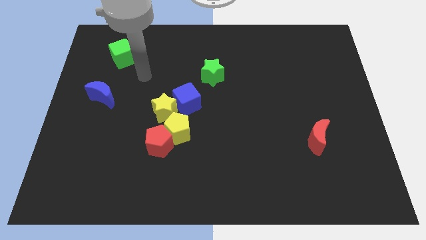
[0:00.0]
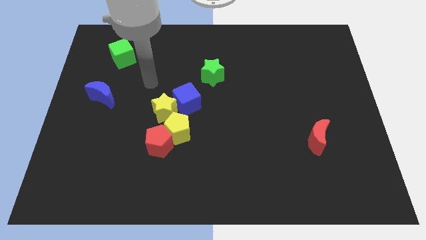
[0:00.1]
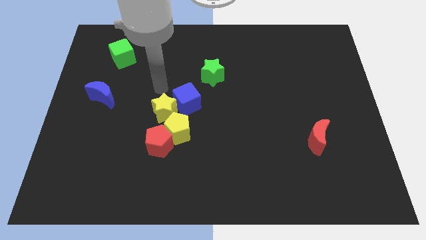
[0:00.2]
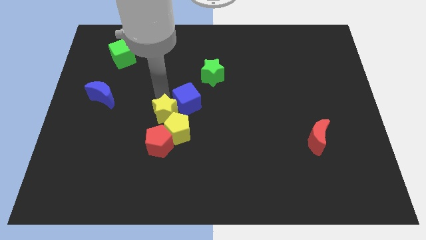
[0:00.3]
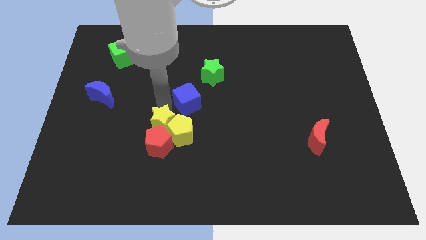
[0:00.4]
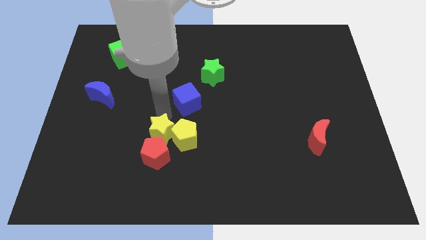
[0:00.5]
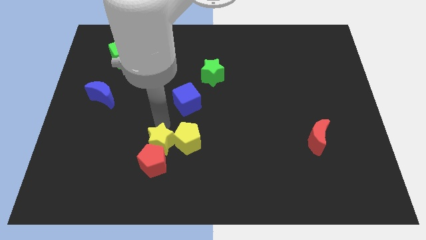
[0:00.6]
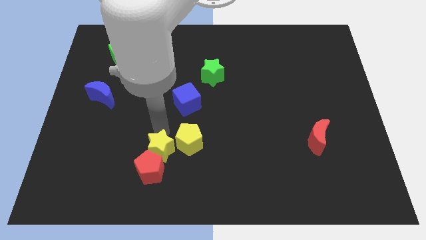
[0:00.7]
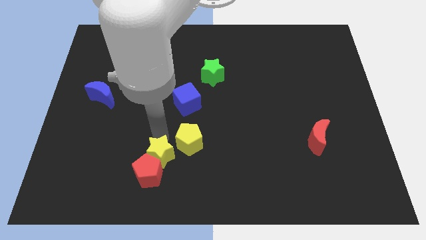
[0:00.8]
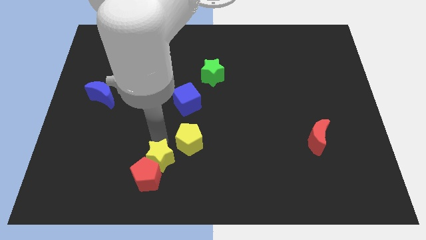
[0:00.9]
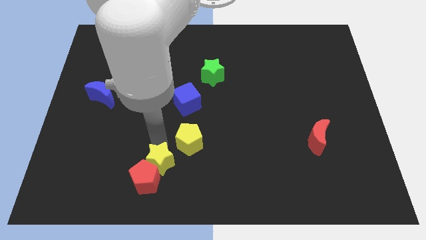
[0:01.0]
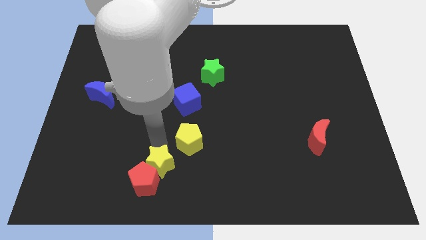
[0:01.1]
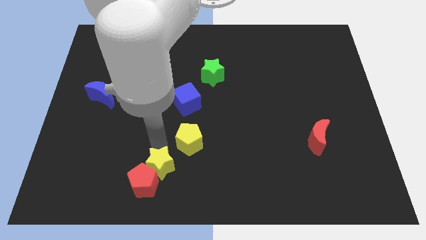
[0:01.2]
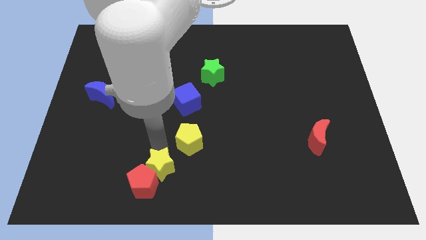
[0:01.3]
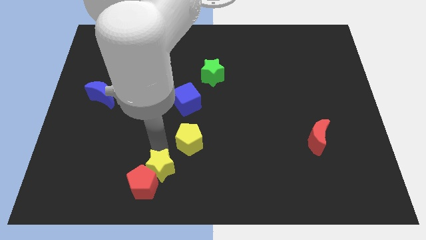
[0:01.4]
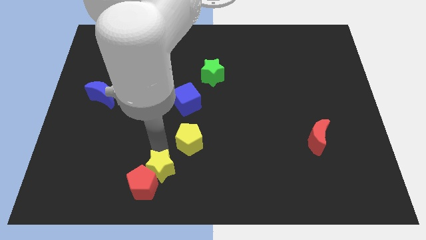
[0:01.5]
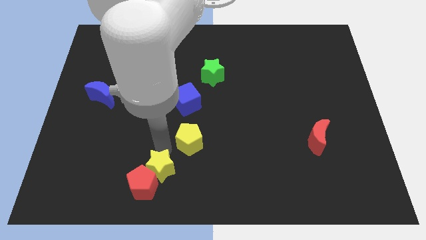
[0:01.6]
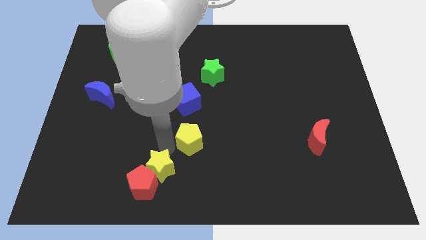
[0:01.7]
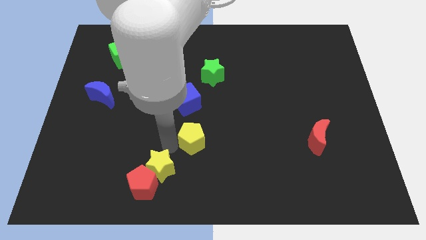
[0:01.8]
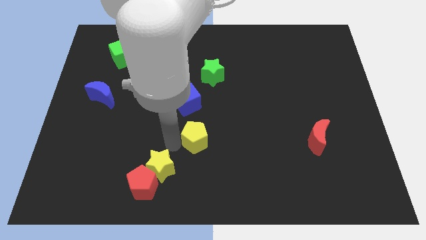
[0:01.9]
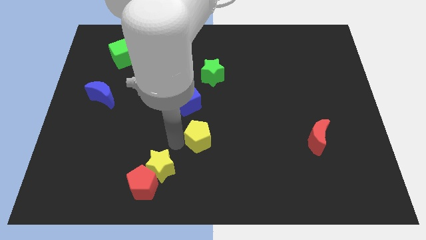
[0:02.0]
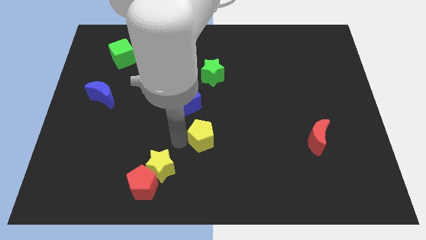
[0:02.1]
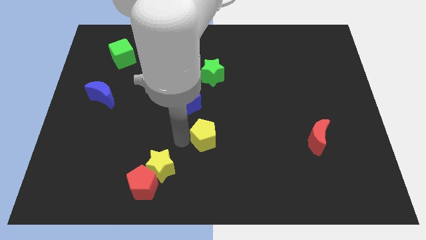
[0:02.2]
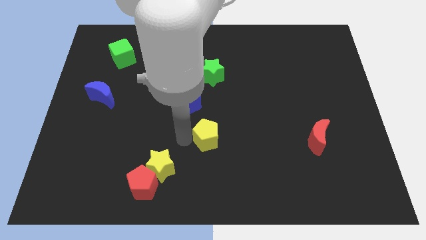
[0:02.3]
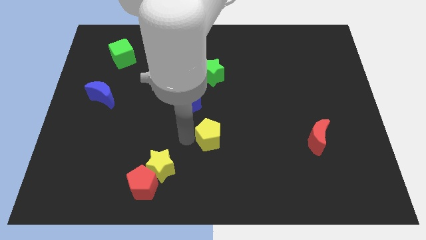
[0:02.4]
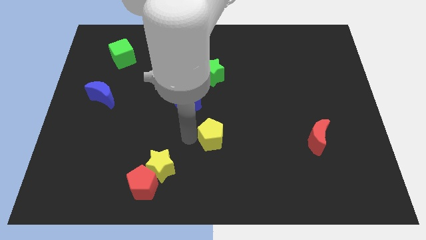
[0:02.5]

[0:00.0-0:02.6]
move the yellow pentagon away from the group

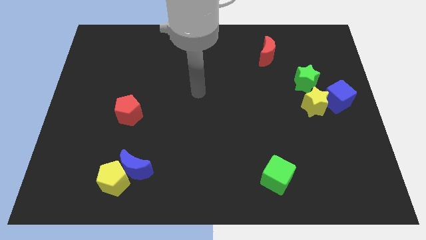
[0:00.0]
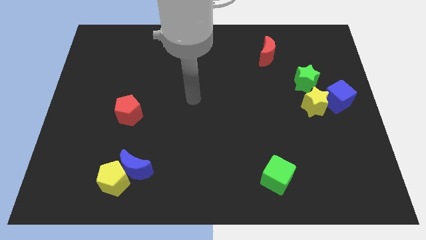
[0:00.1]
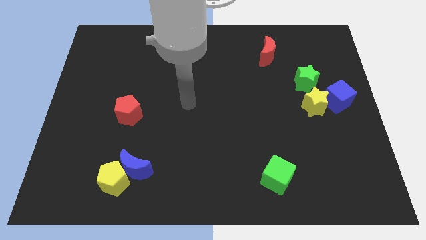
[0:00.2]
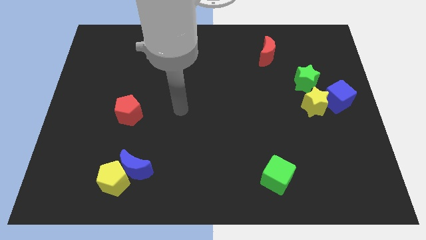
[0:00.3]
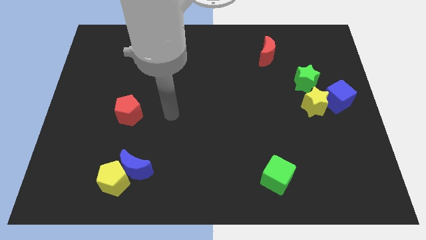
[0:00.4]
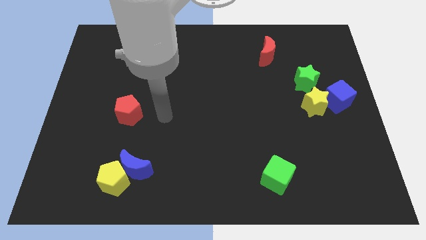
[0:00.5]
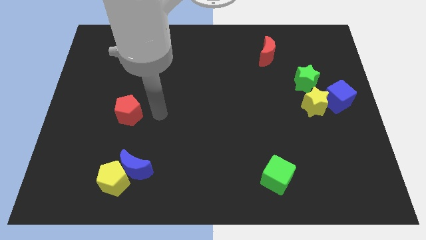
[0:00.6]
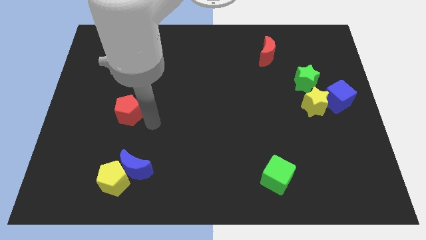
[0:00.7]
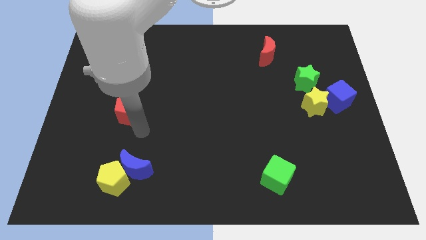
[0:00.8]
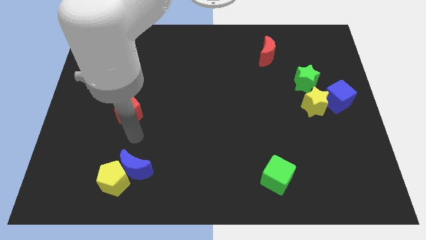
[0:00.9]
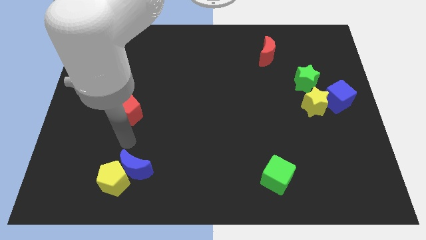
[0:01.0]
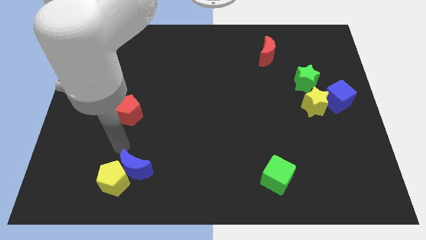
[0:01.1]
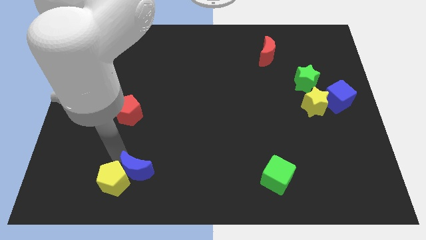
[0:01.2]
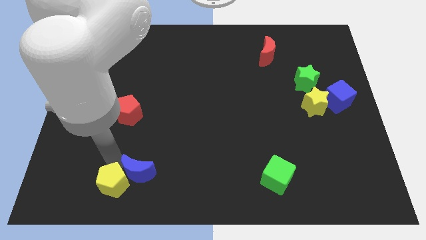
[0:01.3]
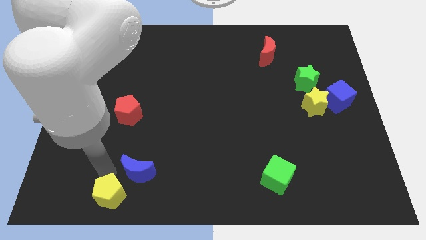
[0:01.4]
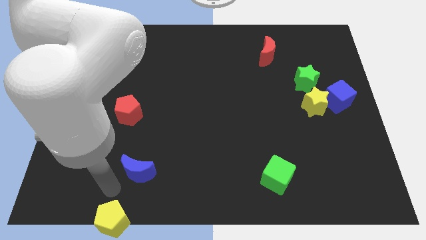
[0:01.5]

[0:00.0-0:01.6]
separate the blue moon from the yellow pentagon

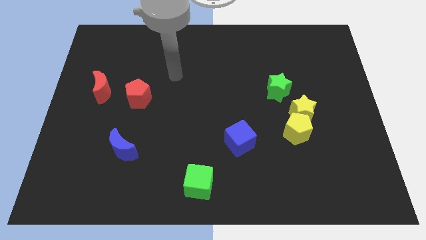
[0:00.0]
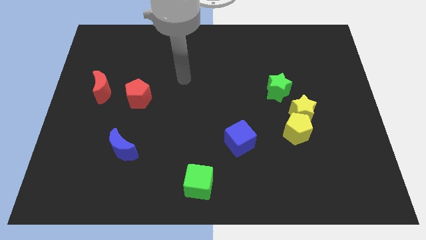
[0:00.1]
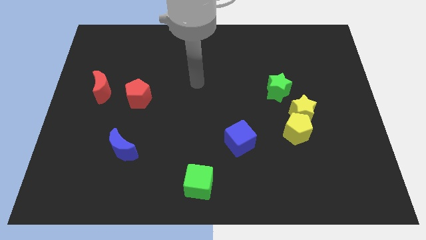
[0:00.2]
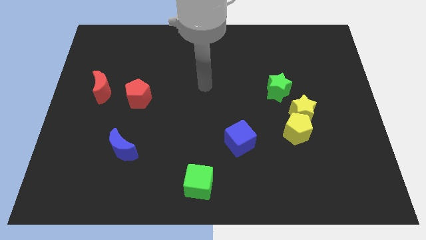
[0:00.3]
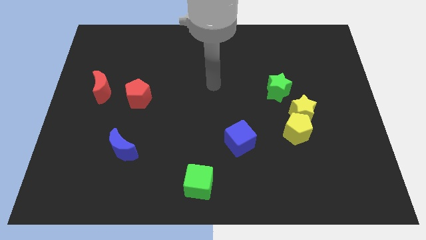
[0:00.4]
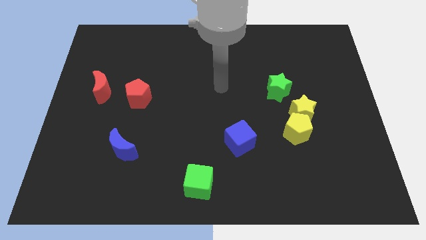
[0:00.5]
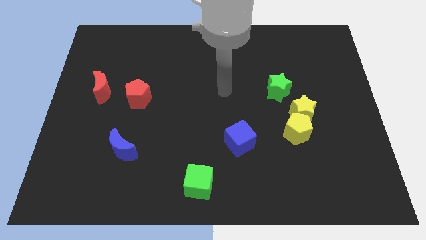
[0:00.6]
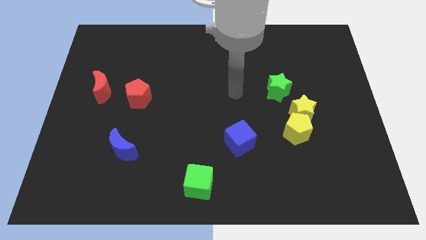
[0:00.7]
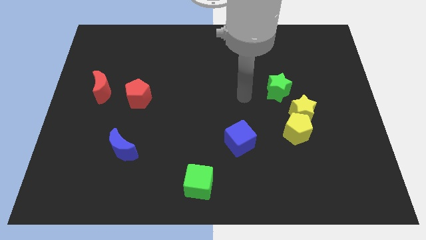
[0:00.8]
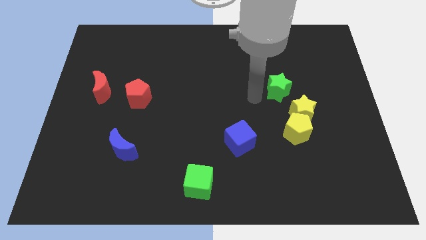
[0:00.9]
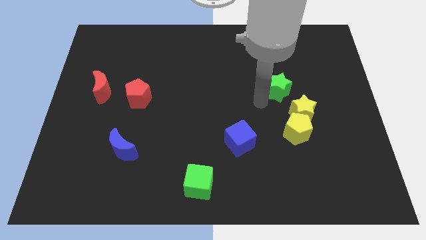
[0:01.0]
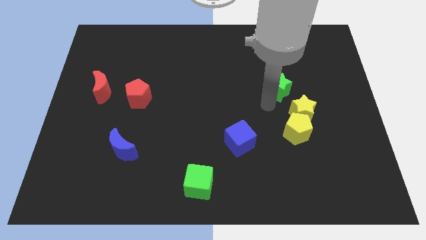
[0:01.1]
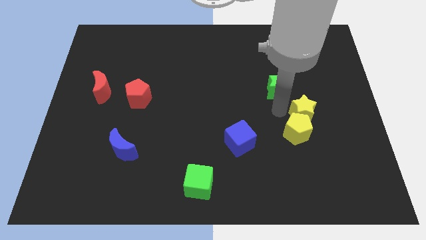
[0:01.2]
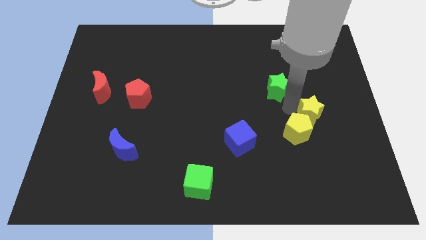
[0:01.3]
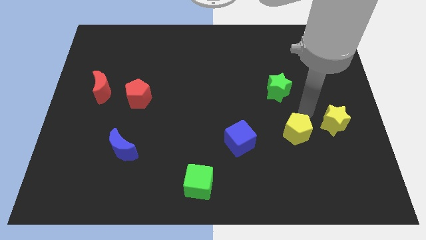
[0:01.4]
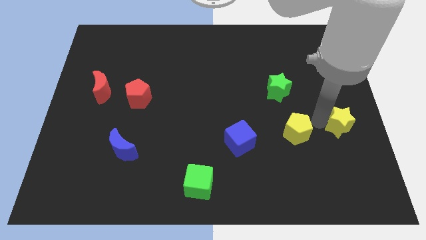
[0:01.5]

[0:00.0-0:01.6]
move the yellow pentagon away from the yellow star

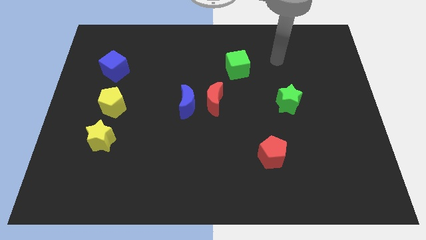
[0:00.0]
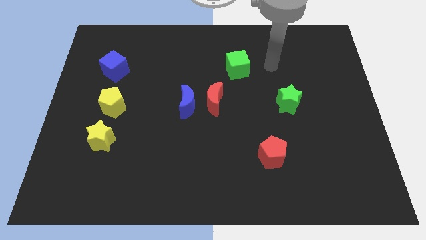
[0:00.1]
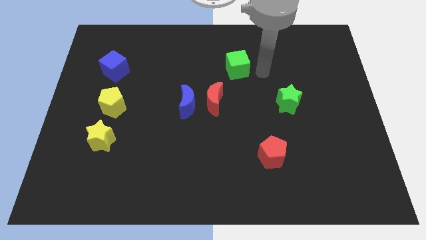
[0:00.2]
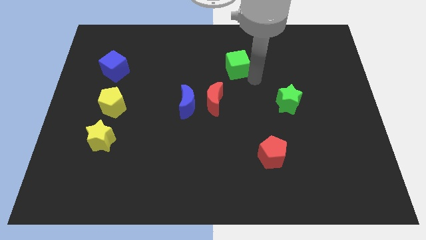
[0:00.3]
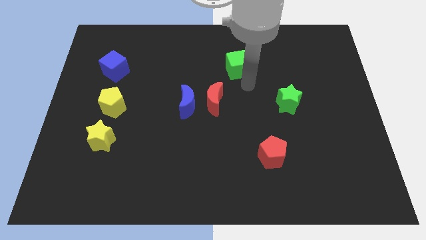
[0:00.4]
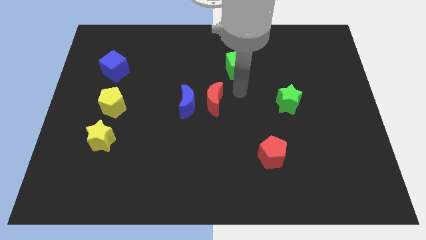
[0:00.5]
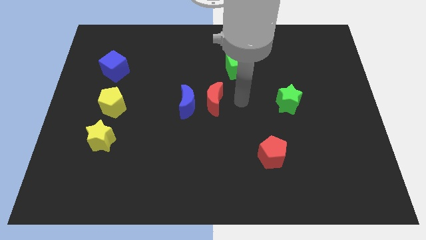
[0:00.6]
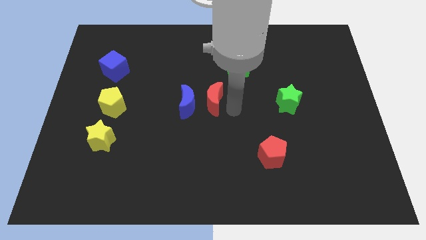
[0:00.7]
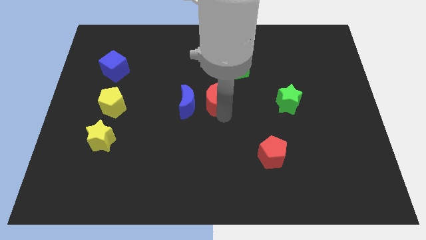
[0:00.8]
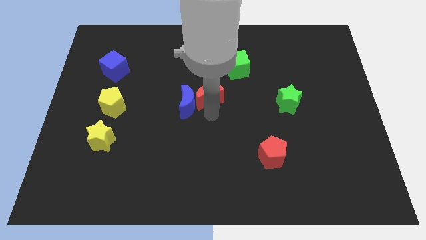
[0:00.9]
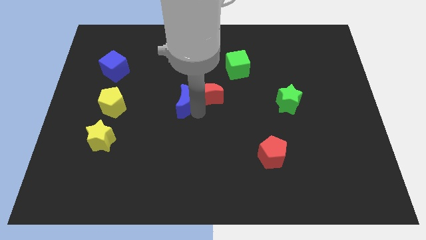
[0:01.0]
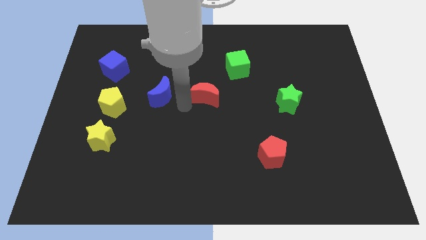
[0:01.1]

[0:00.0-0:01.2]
pull the red moon apart from the blue moon

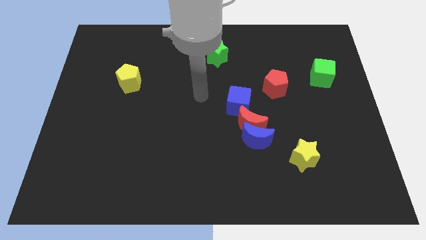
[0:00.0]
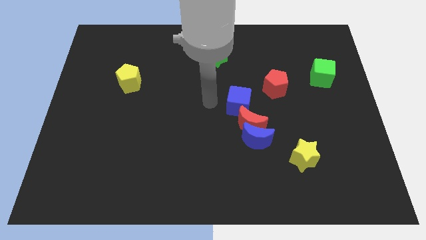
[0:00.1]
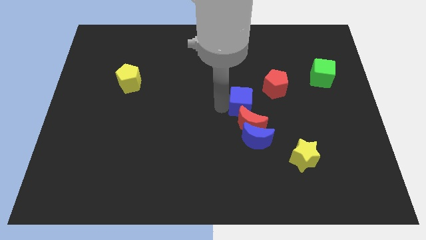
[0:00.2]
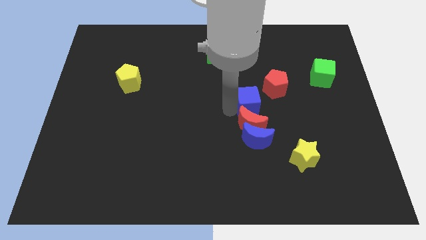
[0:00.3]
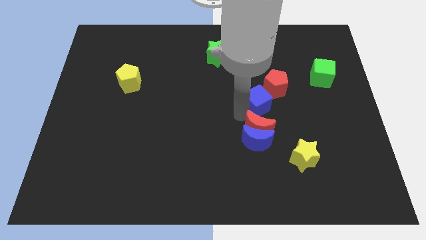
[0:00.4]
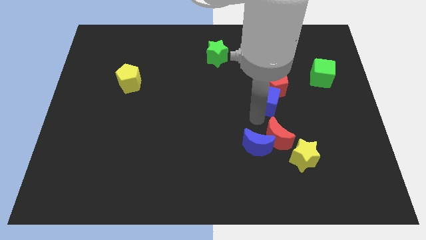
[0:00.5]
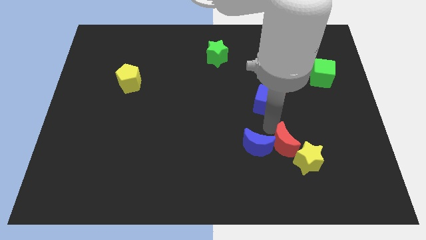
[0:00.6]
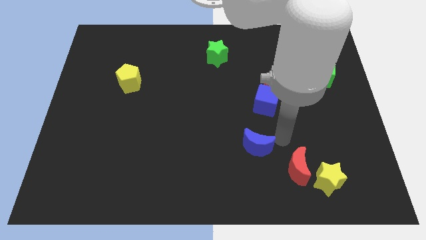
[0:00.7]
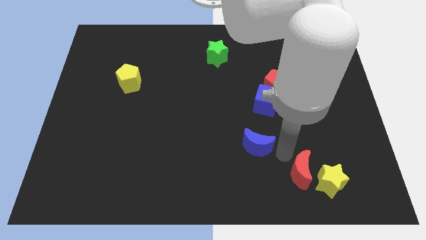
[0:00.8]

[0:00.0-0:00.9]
pull the blue moon apart from the red moon

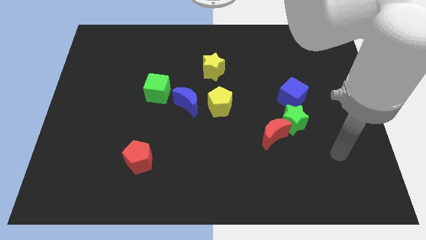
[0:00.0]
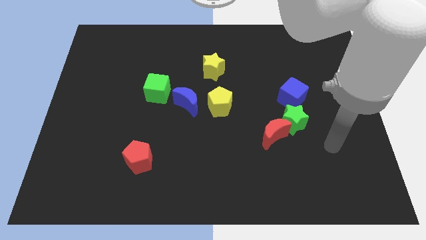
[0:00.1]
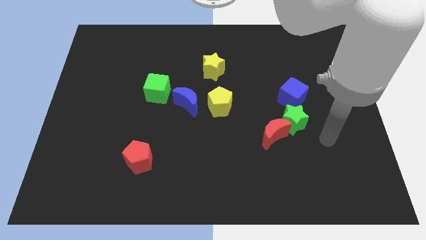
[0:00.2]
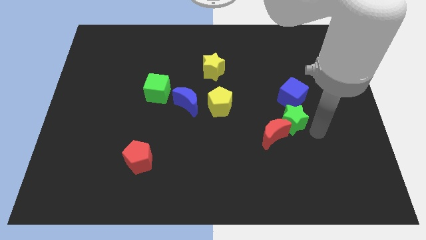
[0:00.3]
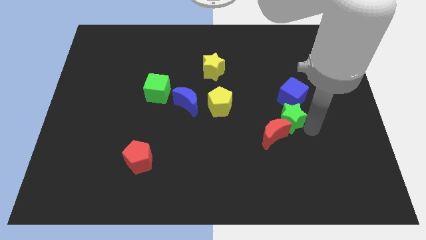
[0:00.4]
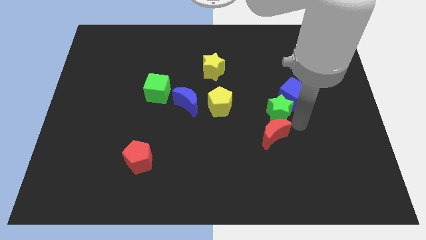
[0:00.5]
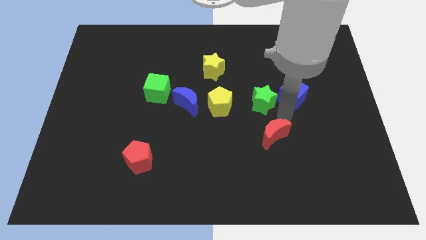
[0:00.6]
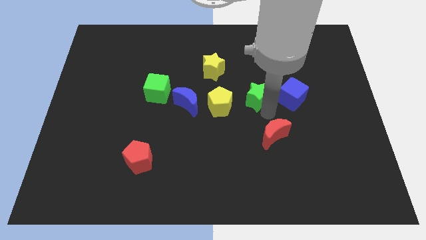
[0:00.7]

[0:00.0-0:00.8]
move the red moon away from the green star

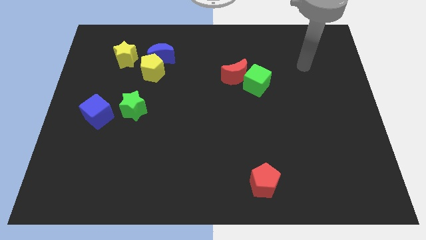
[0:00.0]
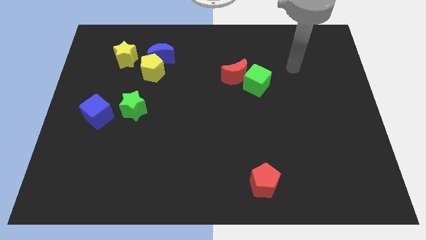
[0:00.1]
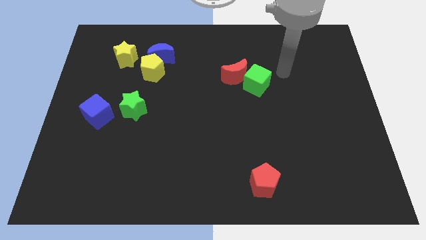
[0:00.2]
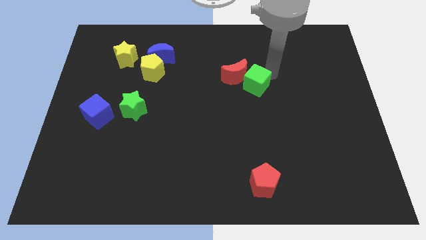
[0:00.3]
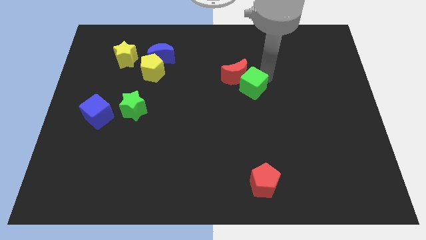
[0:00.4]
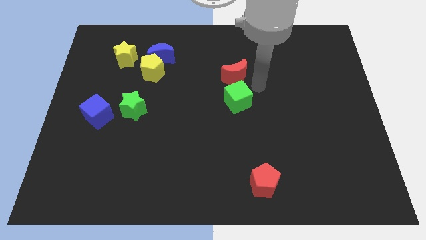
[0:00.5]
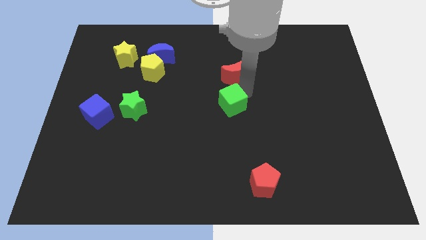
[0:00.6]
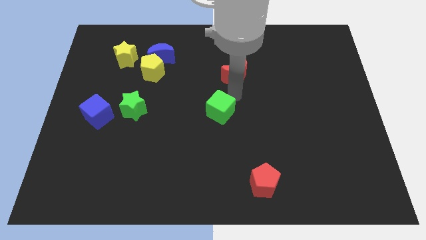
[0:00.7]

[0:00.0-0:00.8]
pull the red moon apart from the green cube
